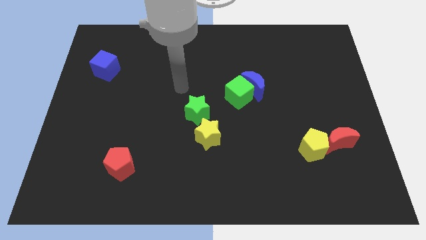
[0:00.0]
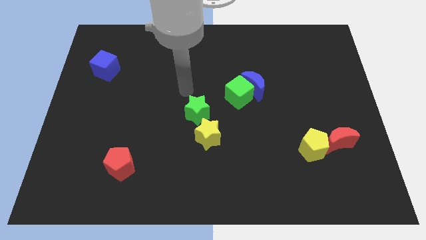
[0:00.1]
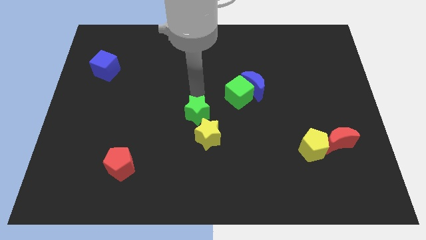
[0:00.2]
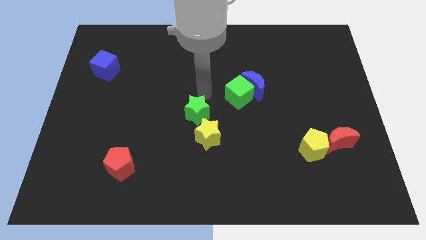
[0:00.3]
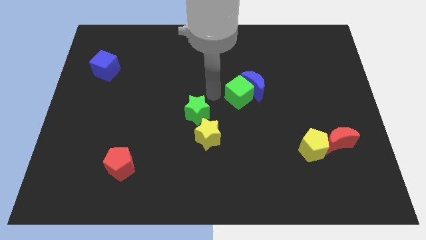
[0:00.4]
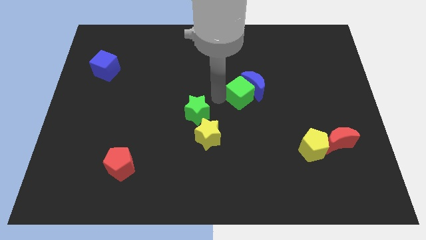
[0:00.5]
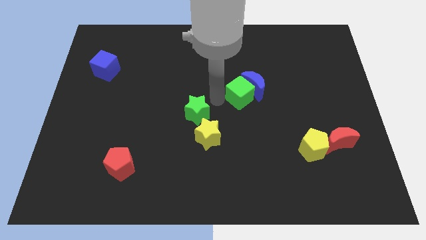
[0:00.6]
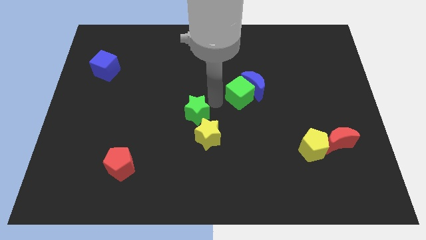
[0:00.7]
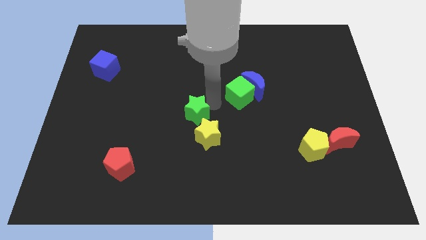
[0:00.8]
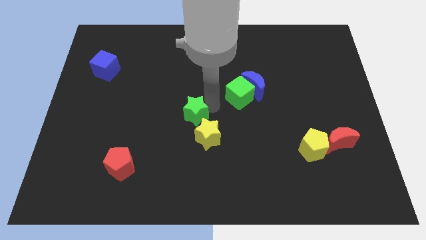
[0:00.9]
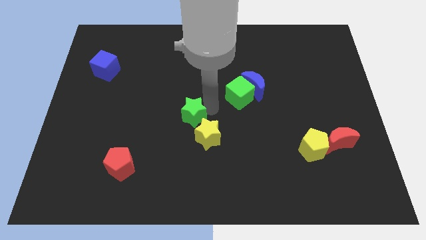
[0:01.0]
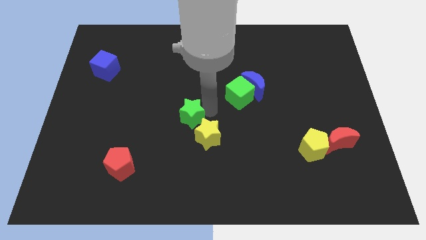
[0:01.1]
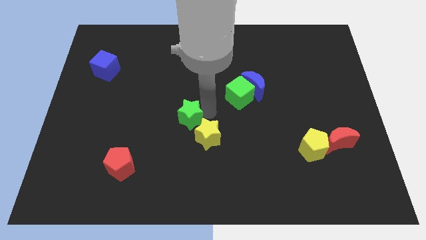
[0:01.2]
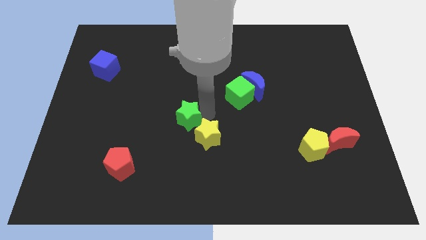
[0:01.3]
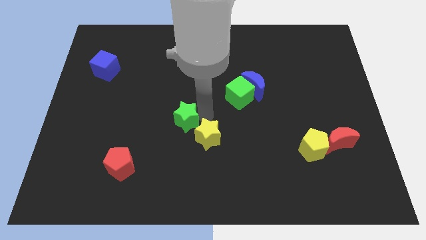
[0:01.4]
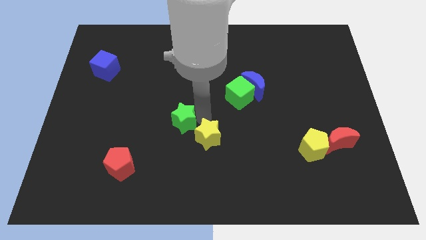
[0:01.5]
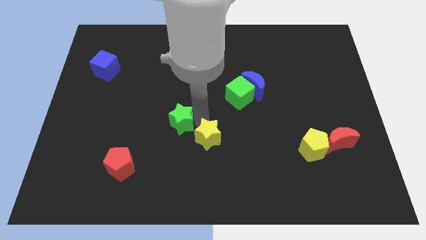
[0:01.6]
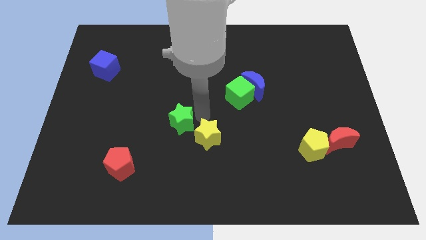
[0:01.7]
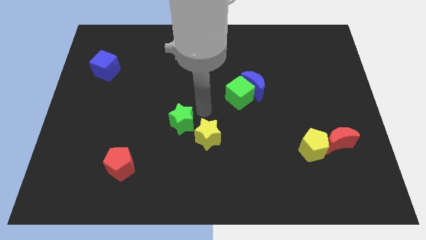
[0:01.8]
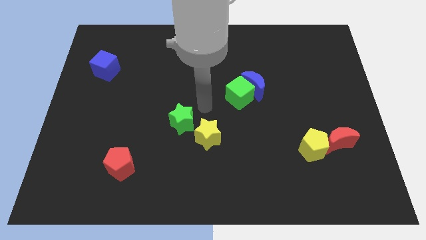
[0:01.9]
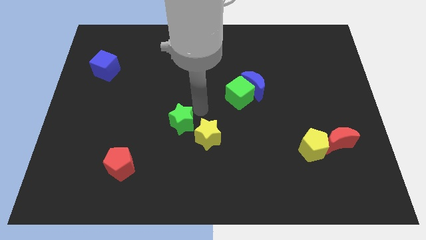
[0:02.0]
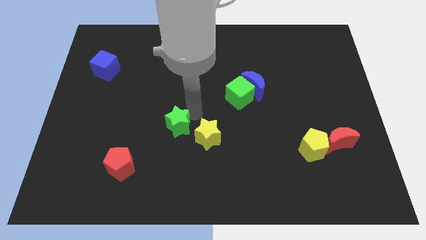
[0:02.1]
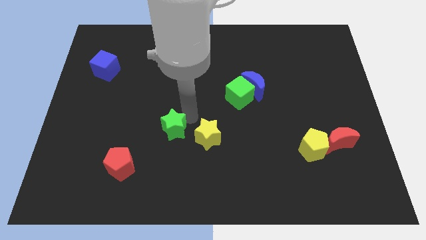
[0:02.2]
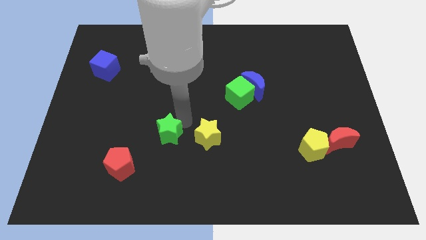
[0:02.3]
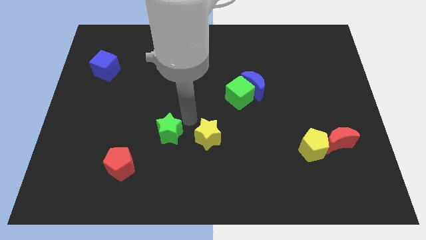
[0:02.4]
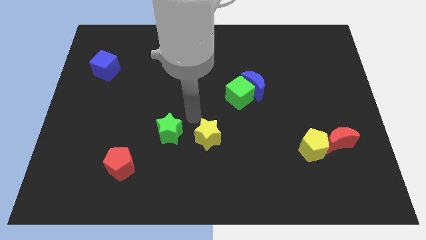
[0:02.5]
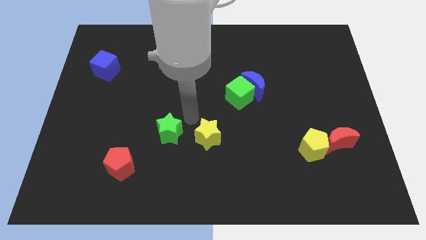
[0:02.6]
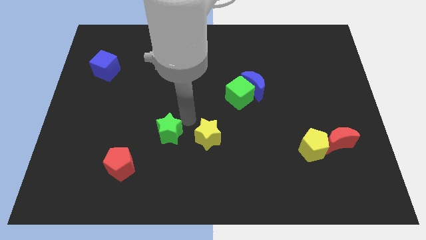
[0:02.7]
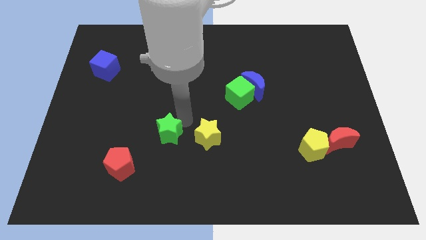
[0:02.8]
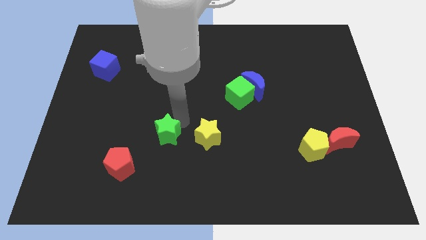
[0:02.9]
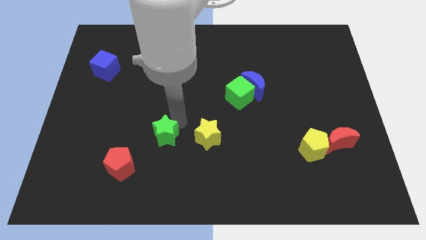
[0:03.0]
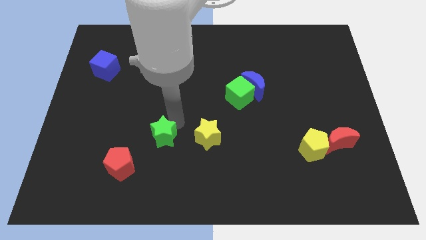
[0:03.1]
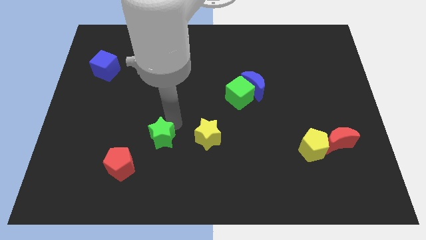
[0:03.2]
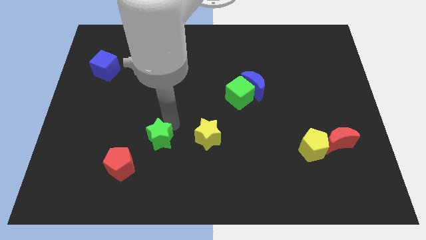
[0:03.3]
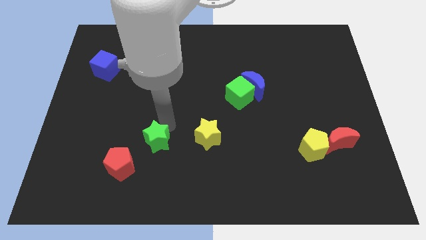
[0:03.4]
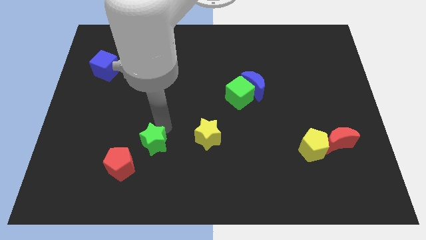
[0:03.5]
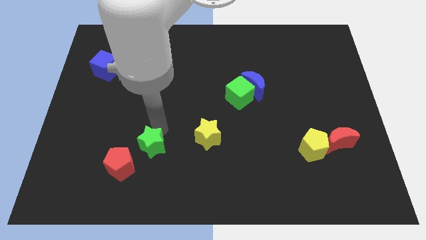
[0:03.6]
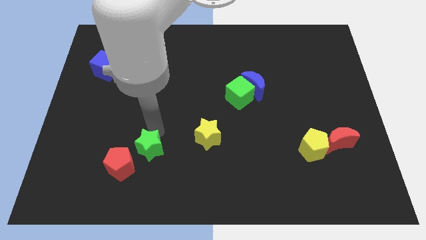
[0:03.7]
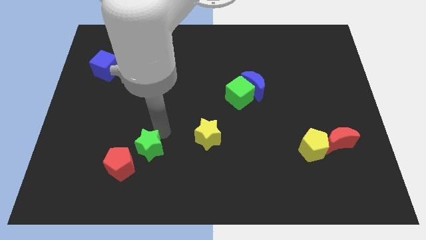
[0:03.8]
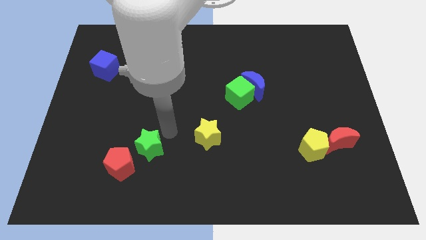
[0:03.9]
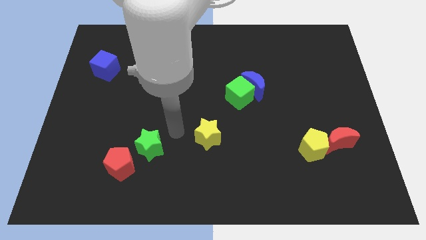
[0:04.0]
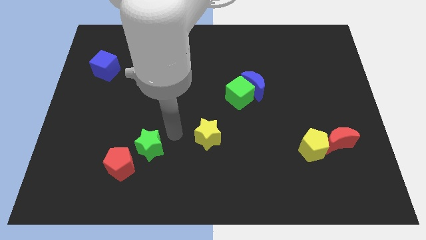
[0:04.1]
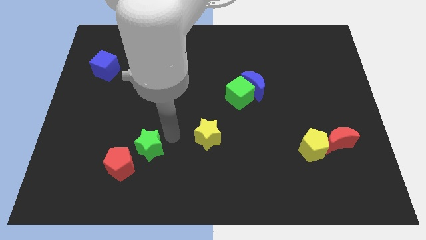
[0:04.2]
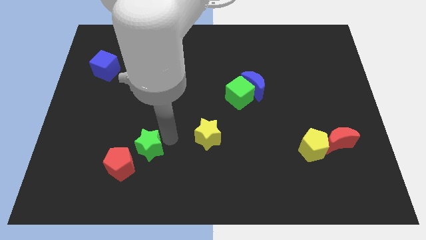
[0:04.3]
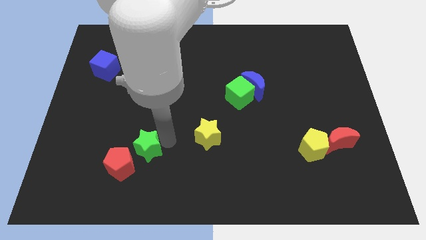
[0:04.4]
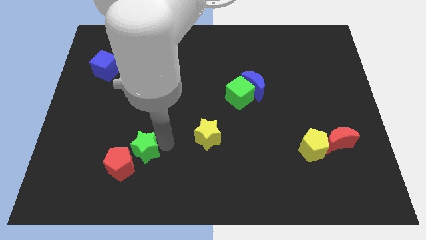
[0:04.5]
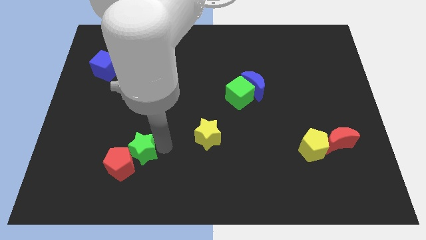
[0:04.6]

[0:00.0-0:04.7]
push the green star close to the red pentagon

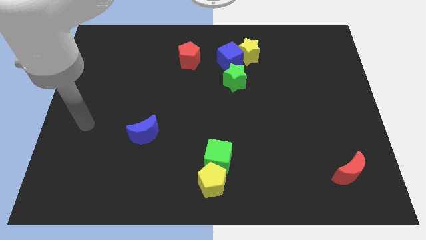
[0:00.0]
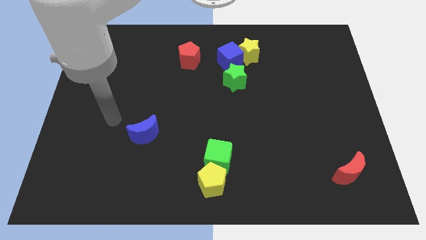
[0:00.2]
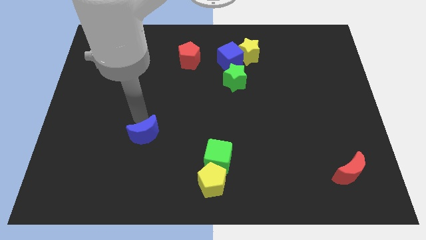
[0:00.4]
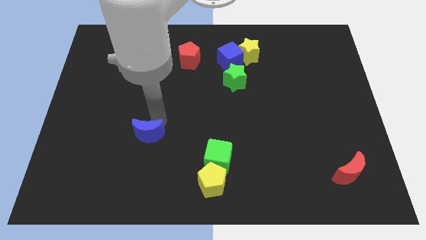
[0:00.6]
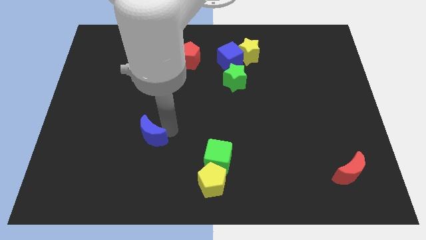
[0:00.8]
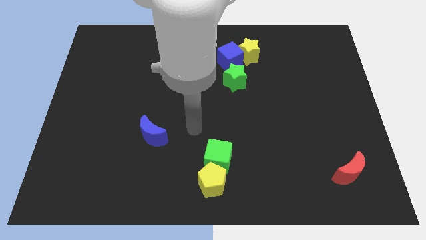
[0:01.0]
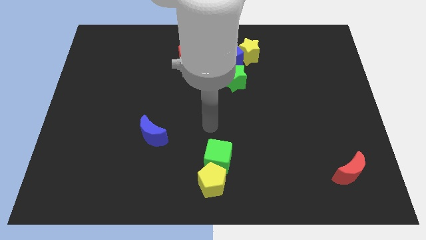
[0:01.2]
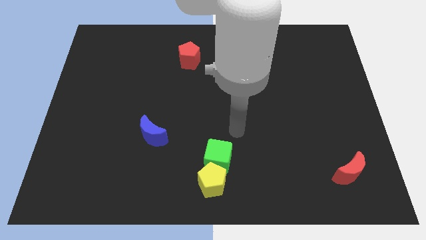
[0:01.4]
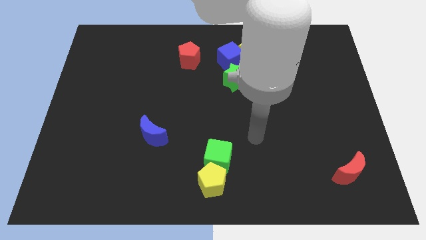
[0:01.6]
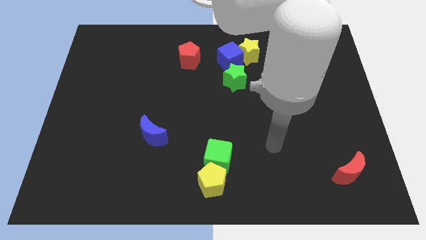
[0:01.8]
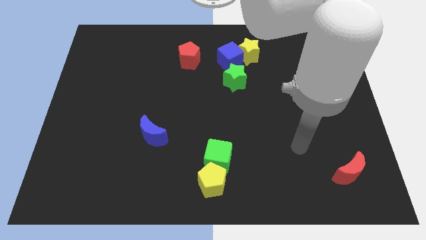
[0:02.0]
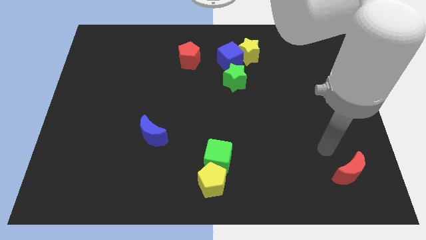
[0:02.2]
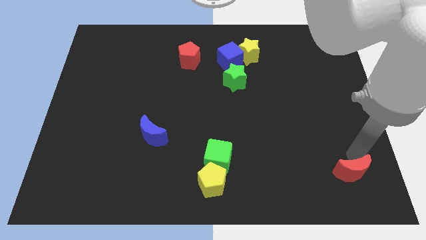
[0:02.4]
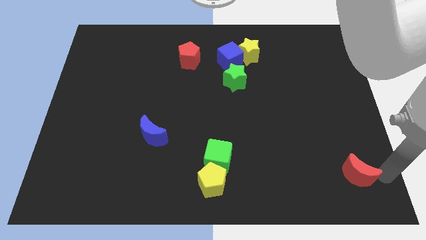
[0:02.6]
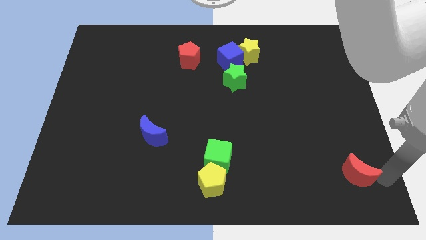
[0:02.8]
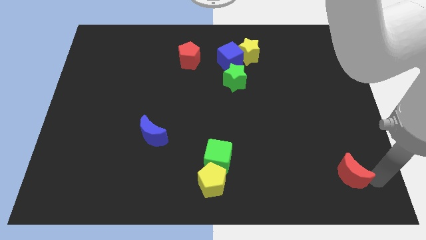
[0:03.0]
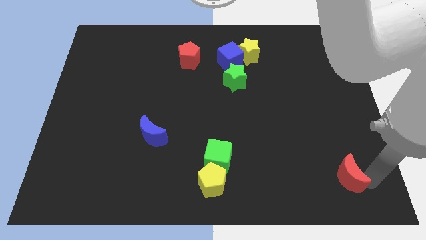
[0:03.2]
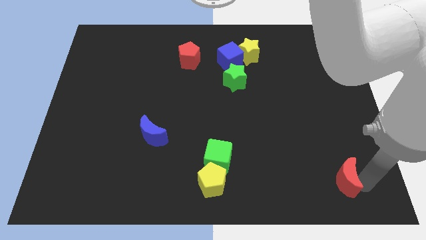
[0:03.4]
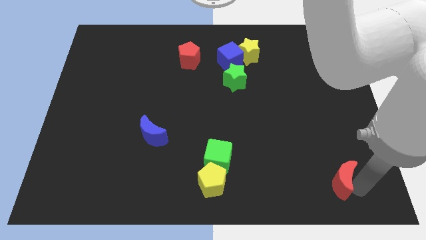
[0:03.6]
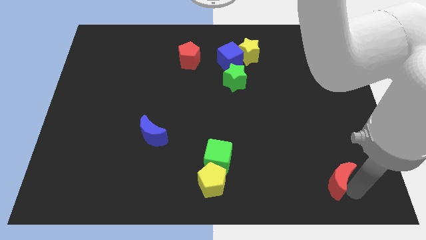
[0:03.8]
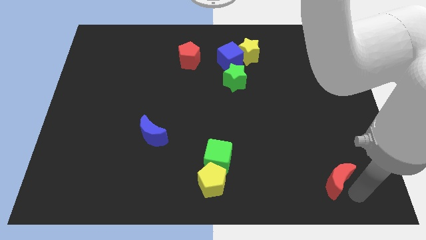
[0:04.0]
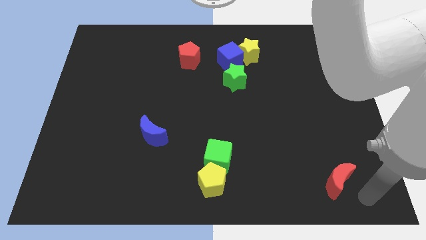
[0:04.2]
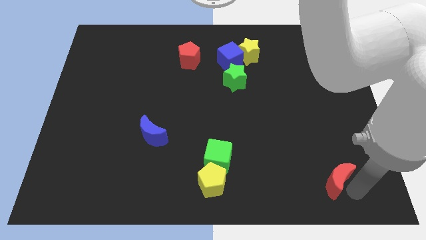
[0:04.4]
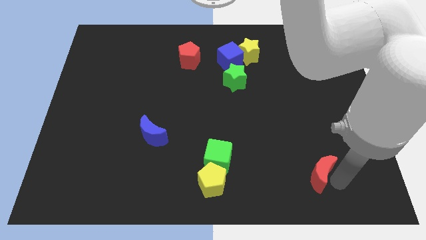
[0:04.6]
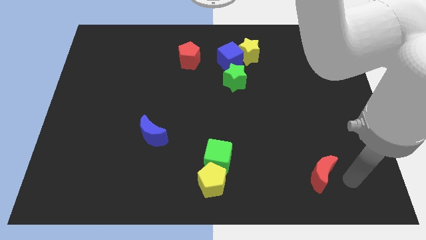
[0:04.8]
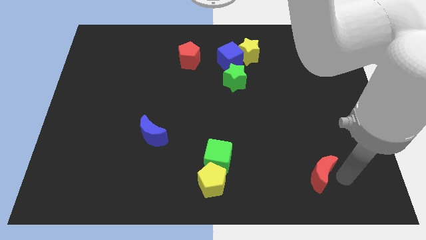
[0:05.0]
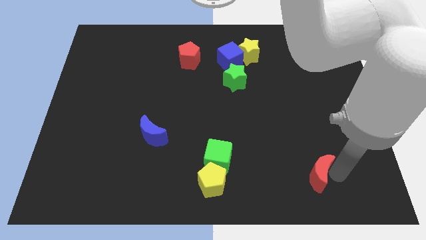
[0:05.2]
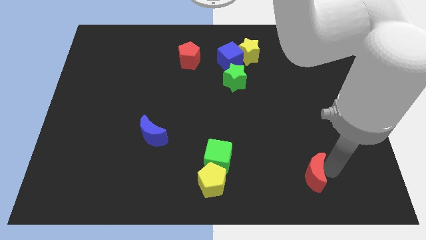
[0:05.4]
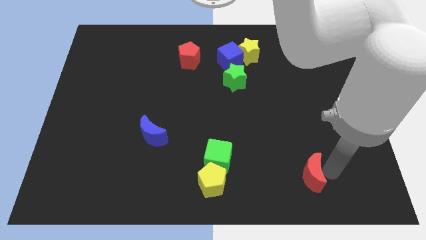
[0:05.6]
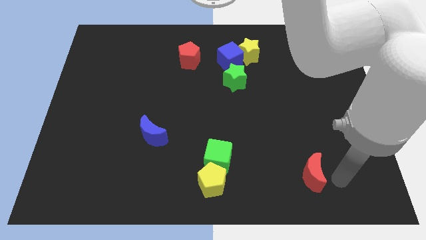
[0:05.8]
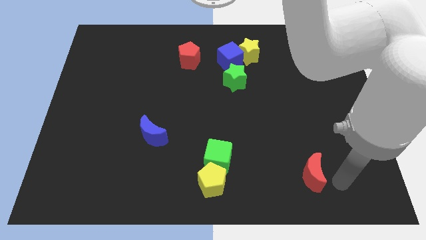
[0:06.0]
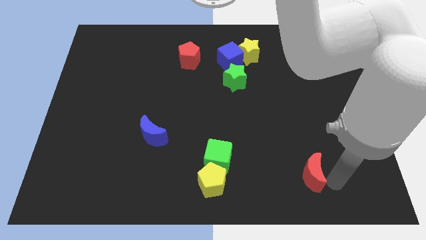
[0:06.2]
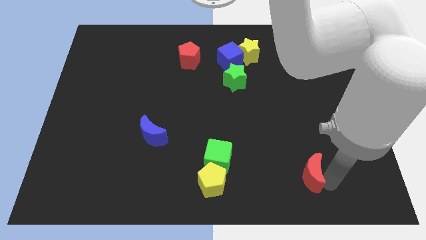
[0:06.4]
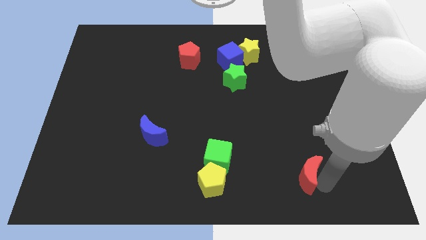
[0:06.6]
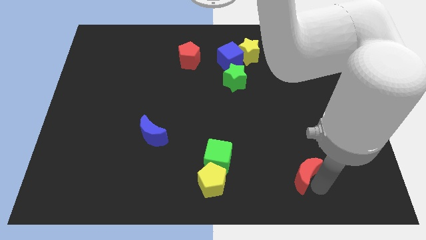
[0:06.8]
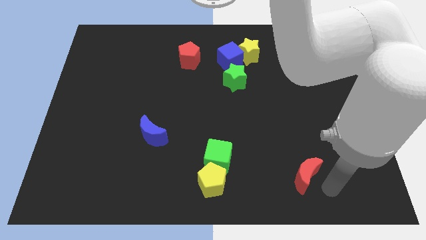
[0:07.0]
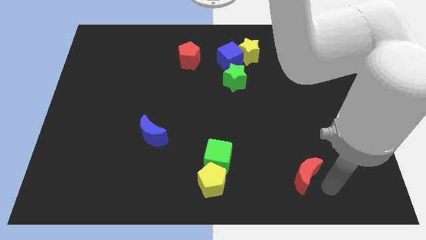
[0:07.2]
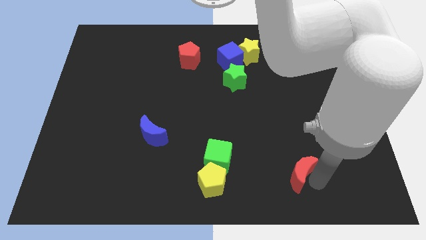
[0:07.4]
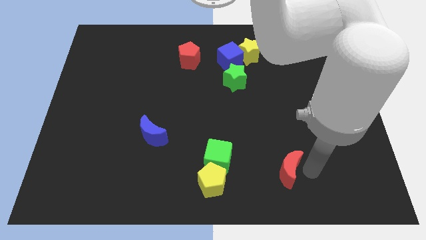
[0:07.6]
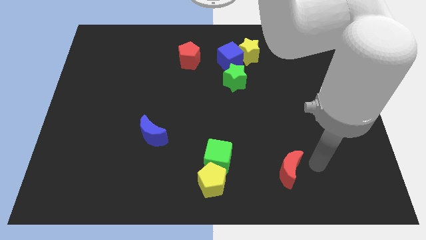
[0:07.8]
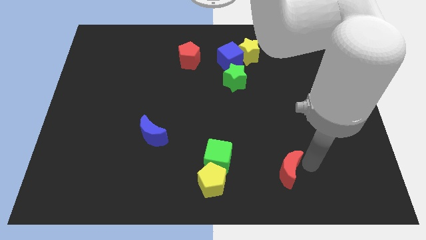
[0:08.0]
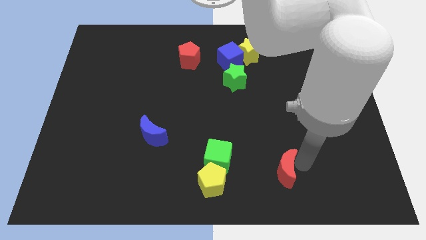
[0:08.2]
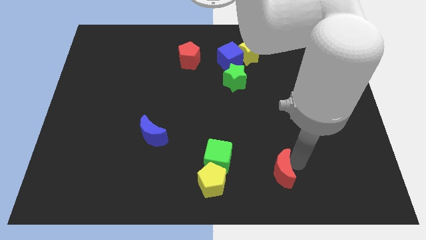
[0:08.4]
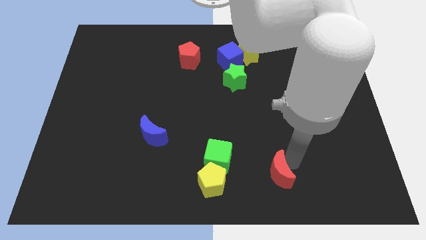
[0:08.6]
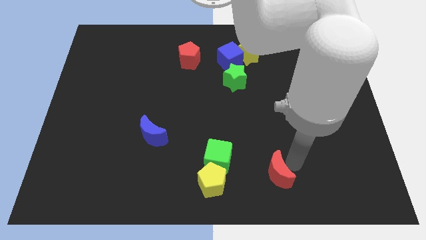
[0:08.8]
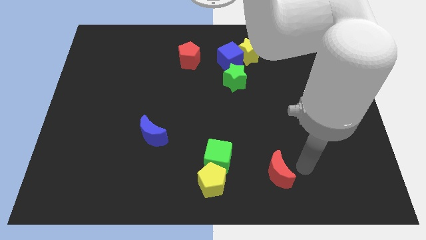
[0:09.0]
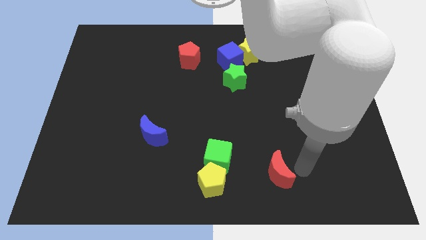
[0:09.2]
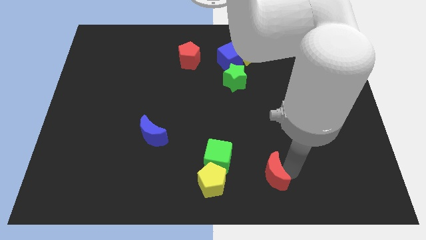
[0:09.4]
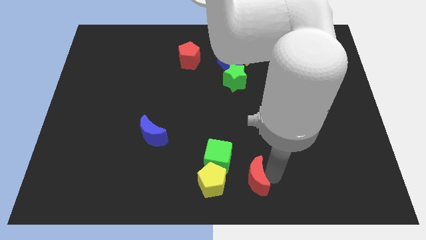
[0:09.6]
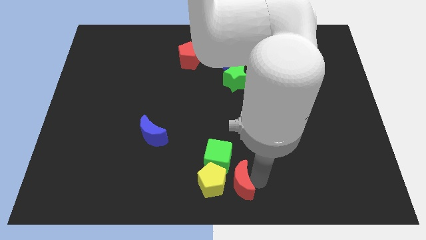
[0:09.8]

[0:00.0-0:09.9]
slide the red moon to the yellow pentagon
